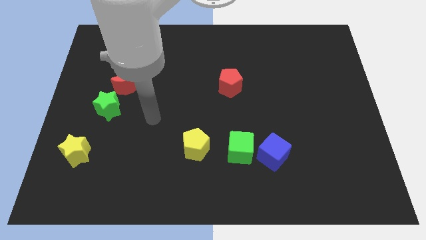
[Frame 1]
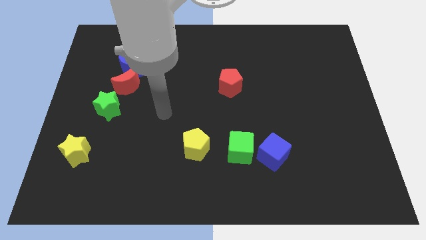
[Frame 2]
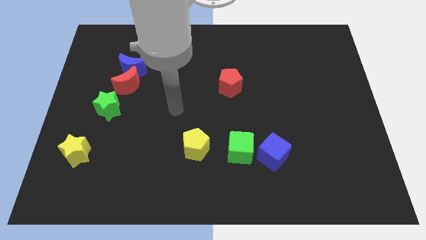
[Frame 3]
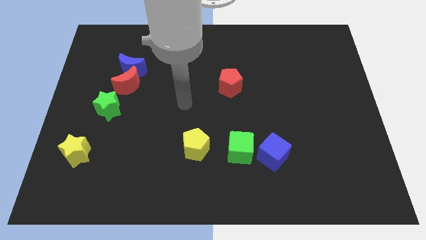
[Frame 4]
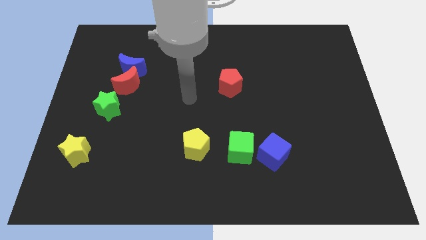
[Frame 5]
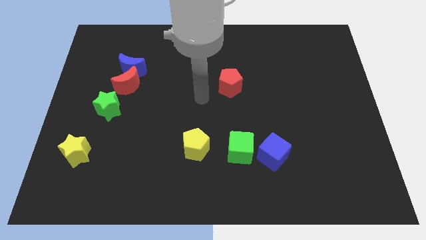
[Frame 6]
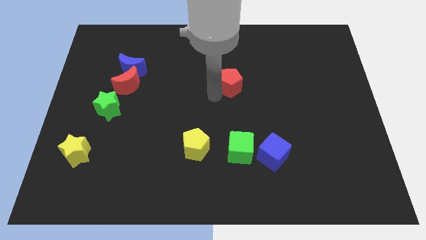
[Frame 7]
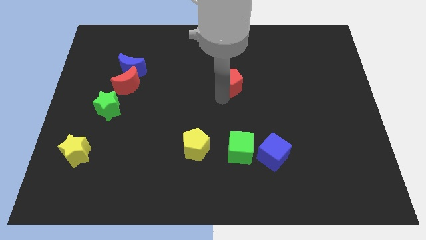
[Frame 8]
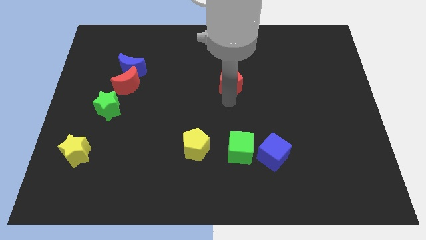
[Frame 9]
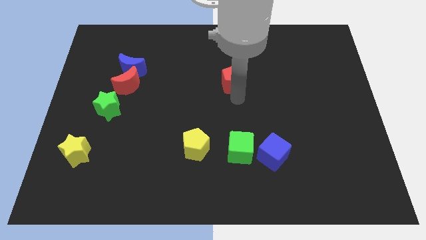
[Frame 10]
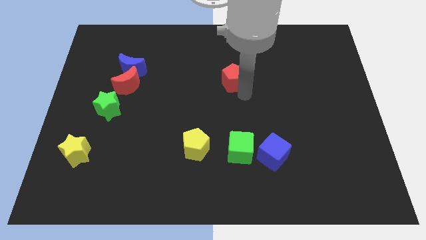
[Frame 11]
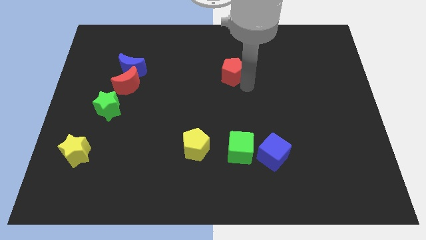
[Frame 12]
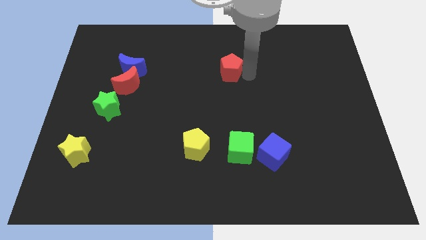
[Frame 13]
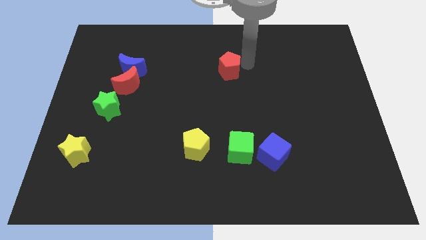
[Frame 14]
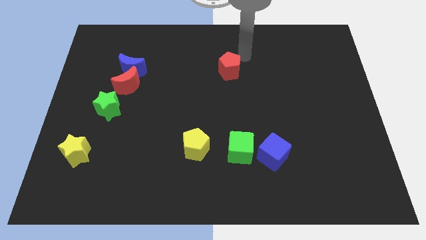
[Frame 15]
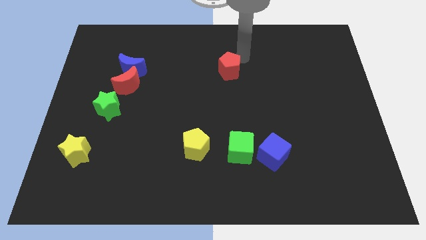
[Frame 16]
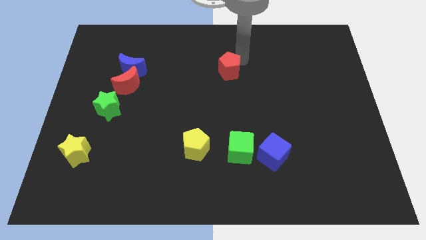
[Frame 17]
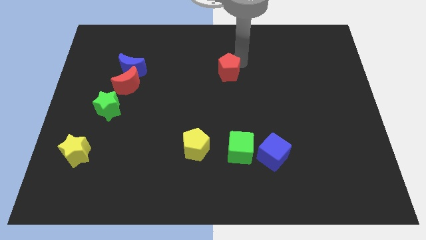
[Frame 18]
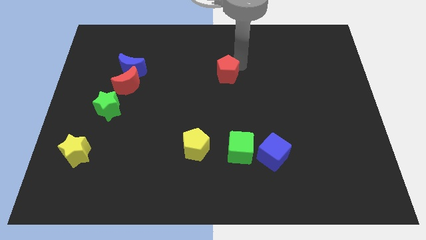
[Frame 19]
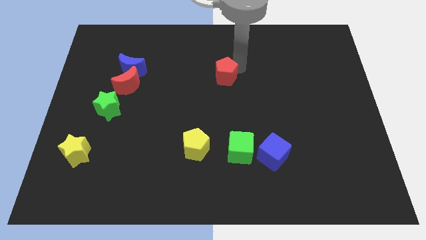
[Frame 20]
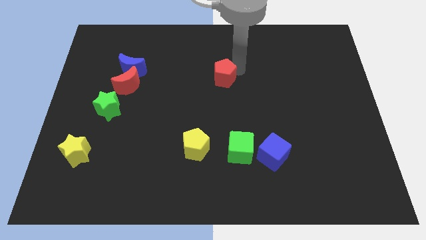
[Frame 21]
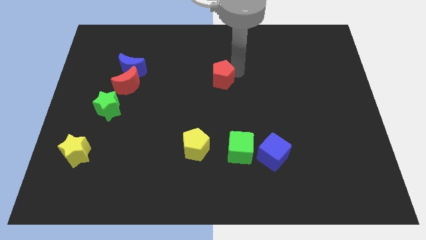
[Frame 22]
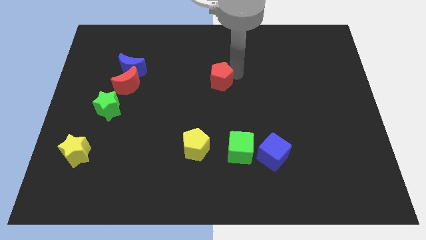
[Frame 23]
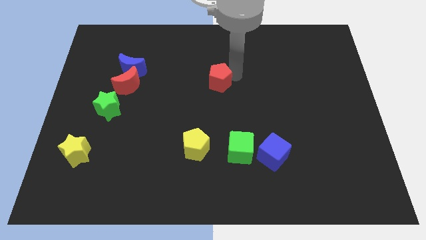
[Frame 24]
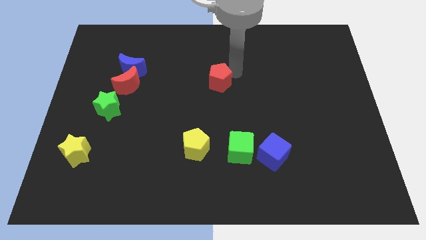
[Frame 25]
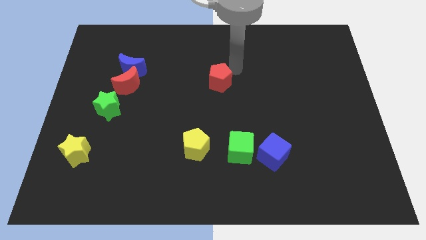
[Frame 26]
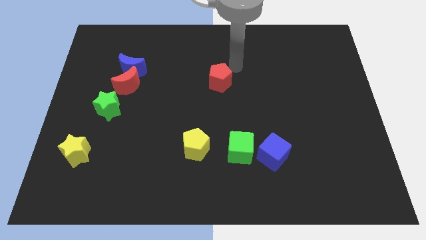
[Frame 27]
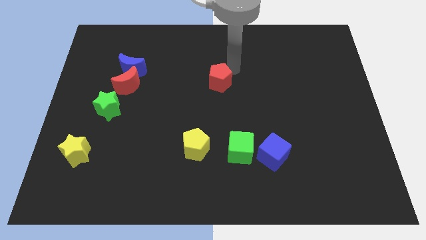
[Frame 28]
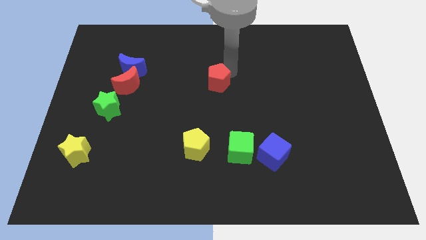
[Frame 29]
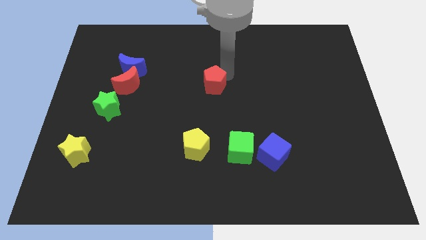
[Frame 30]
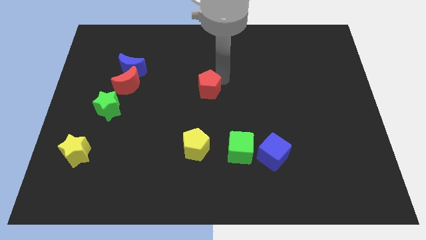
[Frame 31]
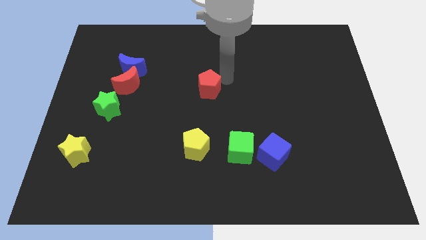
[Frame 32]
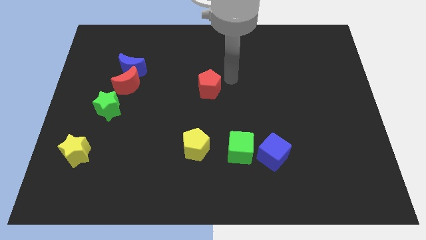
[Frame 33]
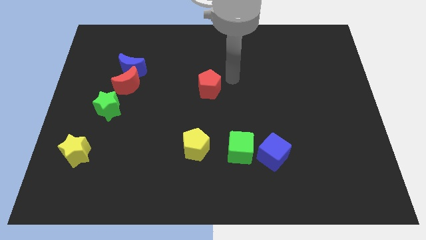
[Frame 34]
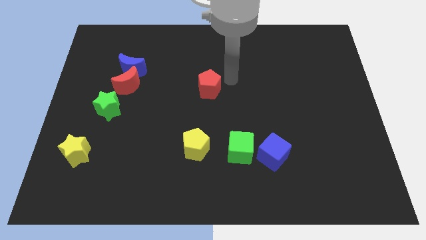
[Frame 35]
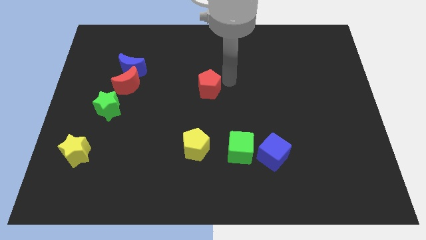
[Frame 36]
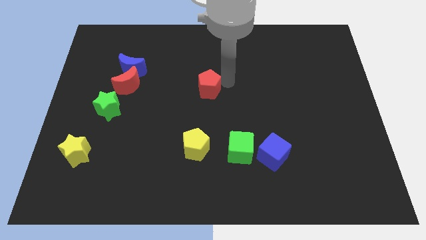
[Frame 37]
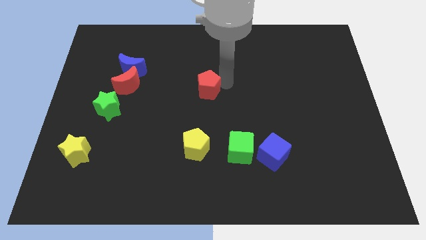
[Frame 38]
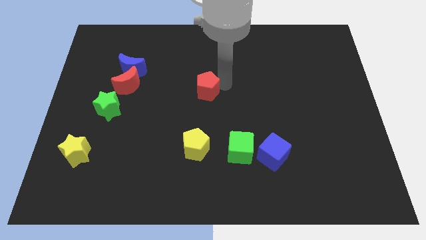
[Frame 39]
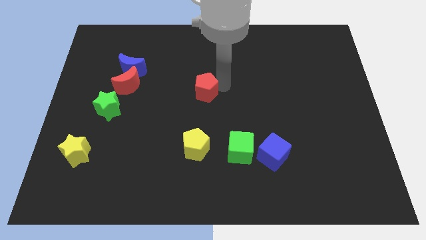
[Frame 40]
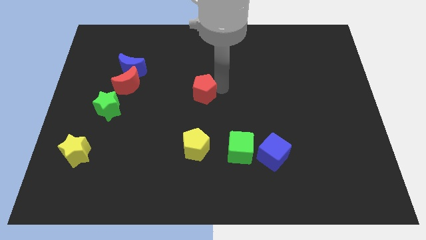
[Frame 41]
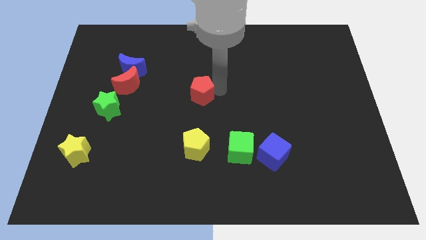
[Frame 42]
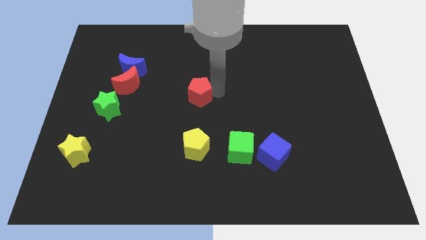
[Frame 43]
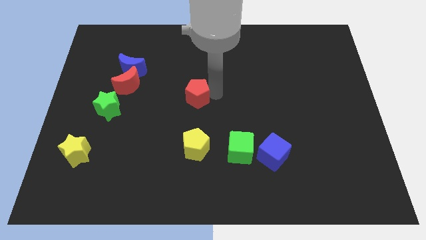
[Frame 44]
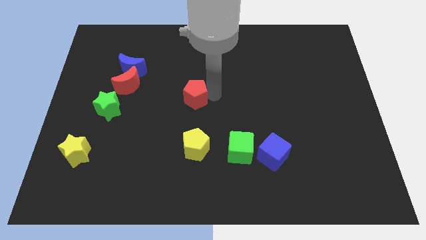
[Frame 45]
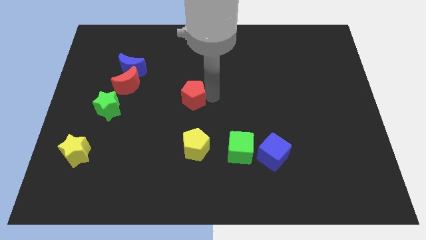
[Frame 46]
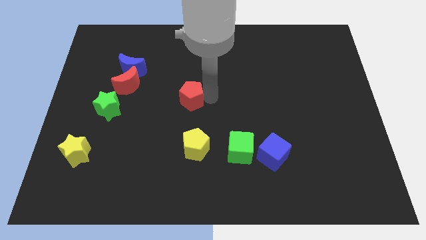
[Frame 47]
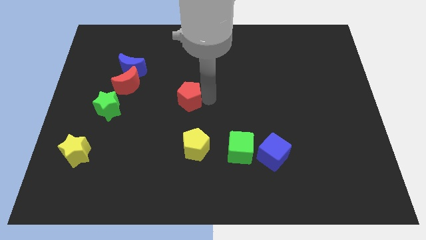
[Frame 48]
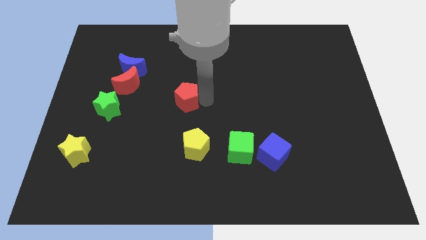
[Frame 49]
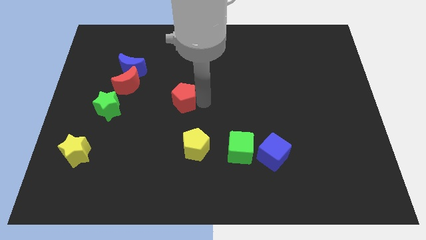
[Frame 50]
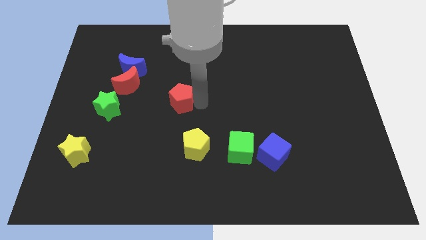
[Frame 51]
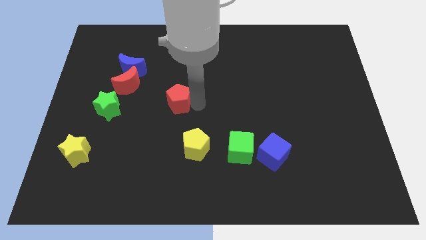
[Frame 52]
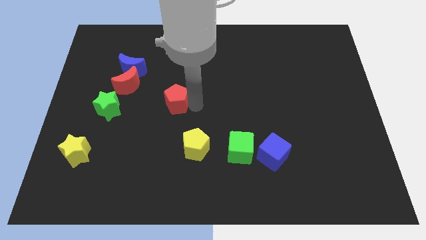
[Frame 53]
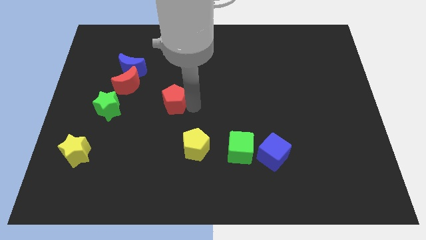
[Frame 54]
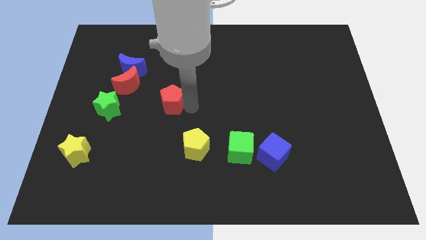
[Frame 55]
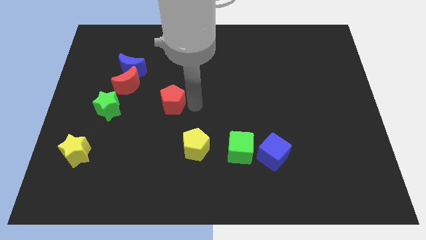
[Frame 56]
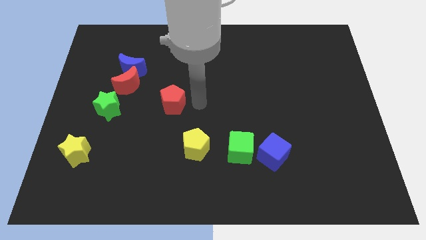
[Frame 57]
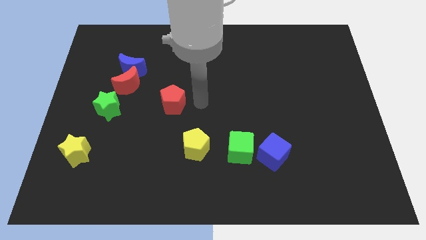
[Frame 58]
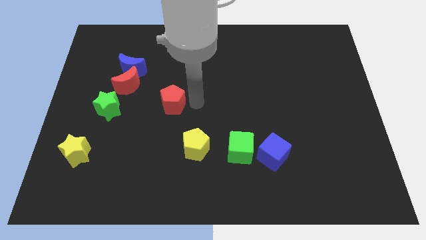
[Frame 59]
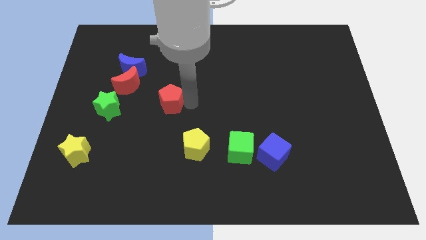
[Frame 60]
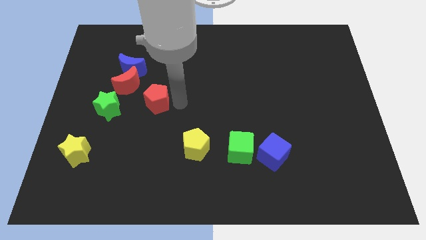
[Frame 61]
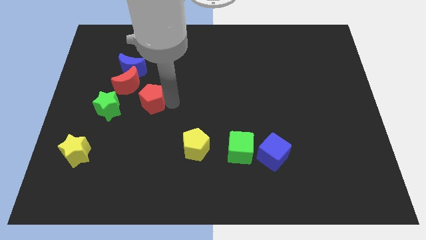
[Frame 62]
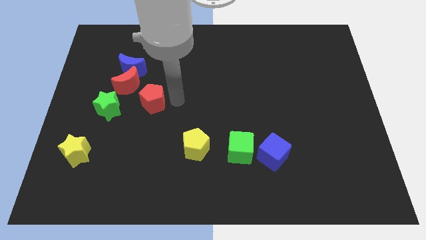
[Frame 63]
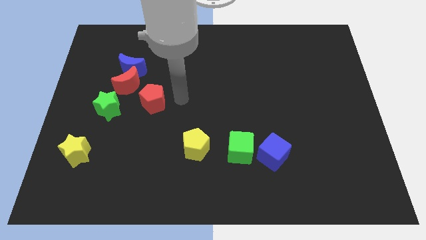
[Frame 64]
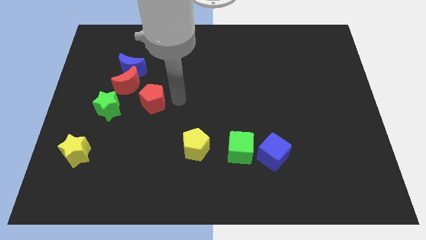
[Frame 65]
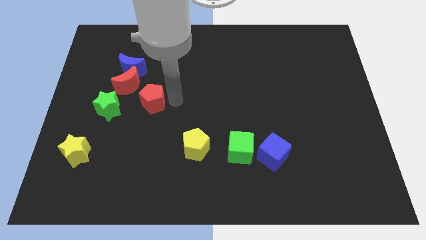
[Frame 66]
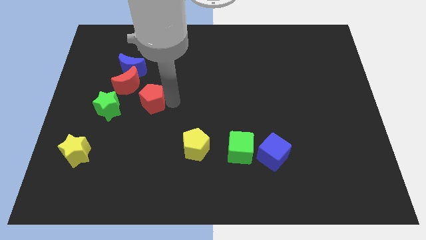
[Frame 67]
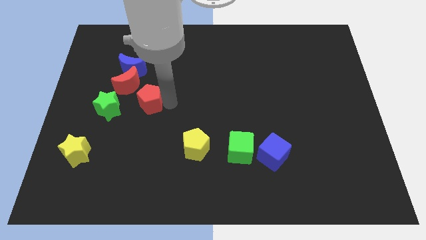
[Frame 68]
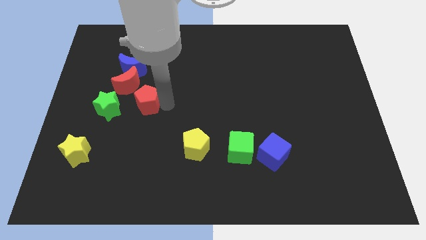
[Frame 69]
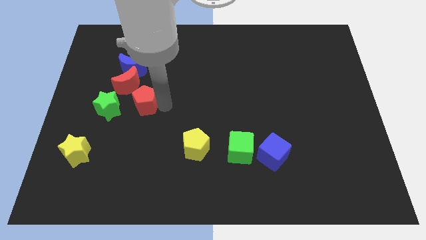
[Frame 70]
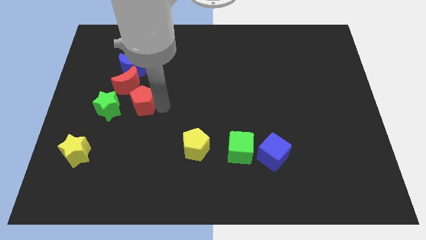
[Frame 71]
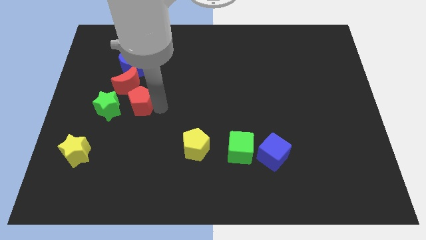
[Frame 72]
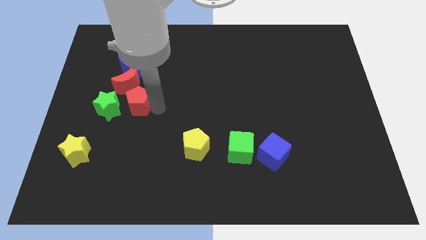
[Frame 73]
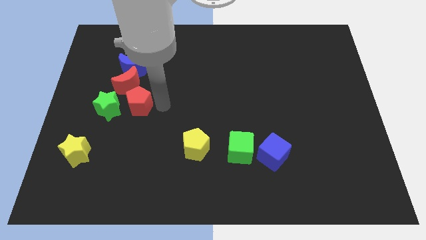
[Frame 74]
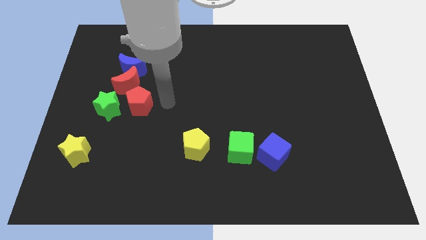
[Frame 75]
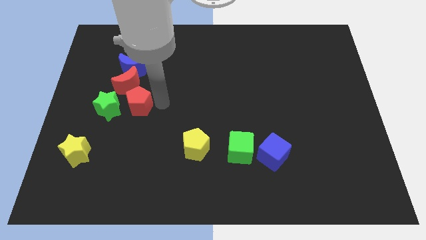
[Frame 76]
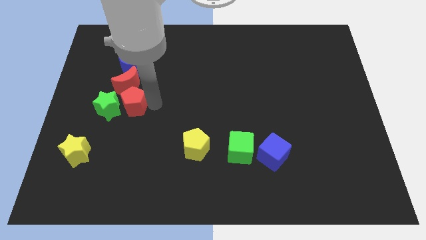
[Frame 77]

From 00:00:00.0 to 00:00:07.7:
push the red pentagon next to the green star
